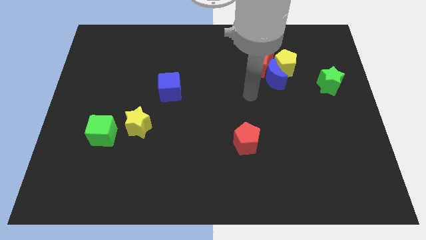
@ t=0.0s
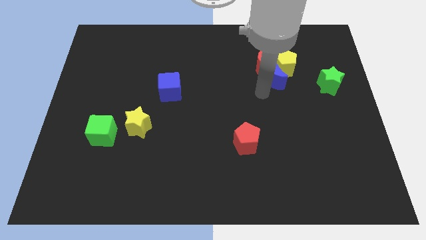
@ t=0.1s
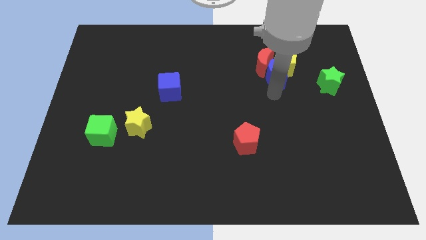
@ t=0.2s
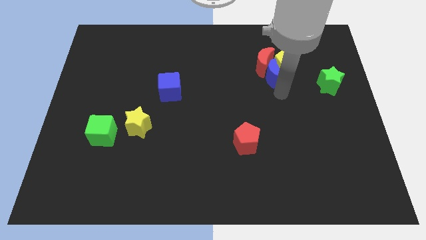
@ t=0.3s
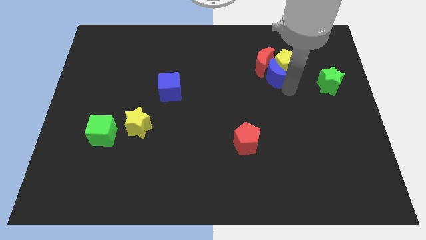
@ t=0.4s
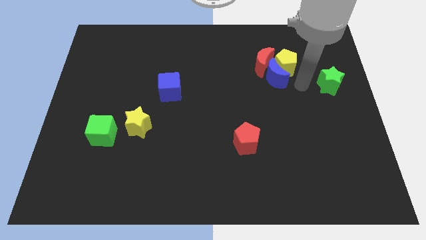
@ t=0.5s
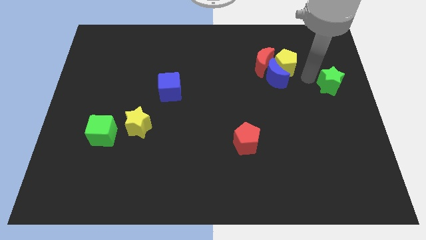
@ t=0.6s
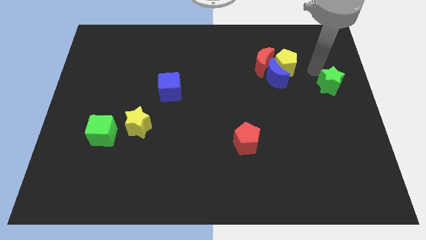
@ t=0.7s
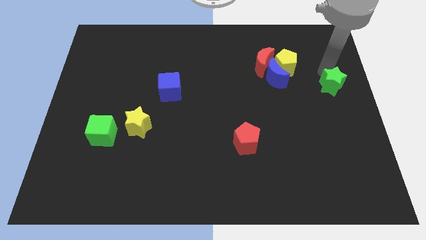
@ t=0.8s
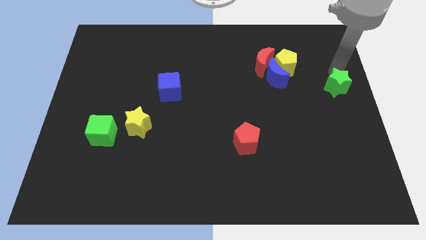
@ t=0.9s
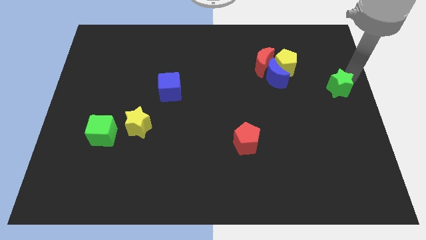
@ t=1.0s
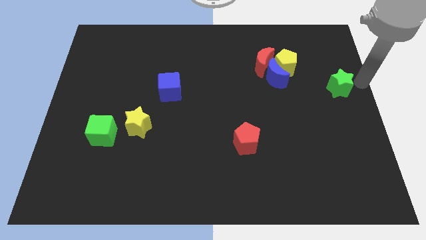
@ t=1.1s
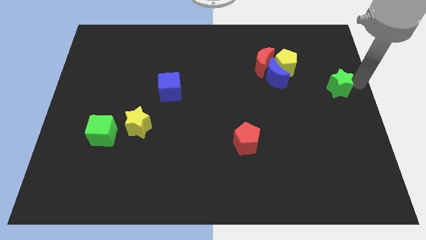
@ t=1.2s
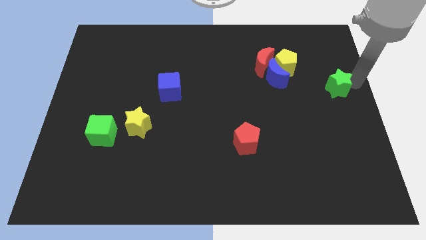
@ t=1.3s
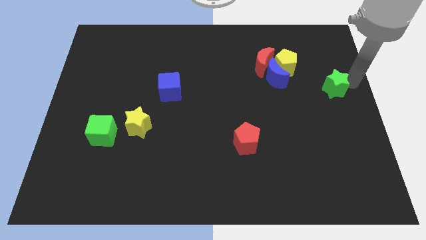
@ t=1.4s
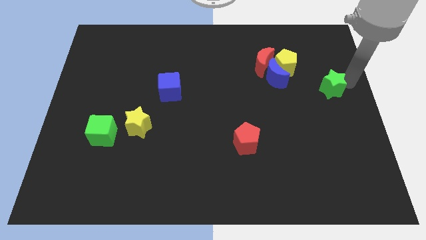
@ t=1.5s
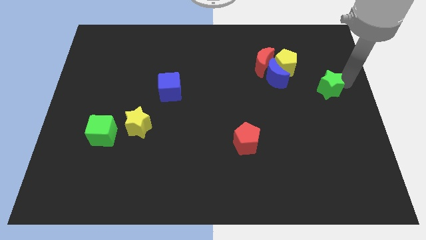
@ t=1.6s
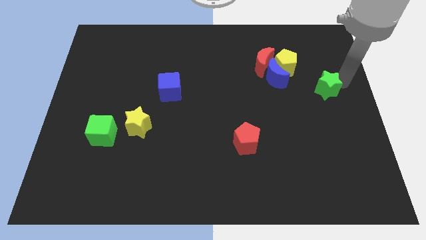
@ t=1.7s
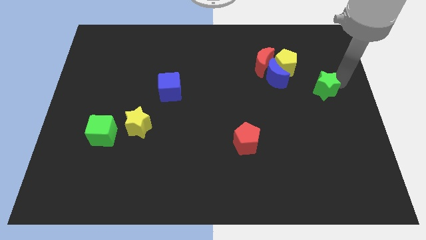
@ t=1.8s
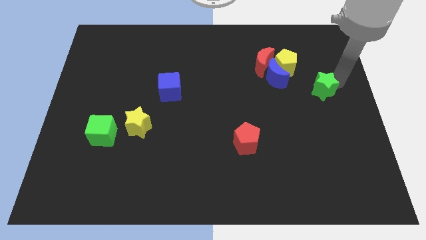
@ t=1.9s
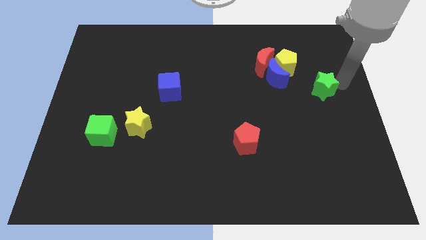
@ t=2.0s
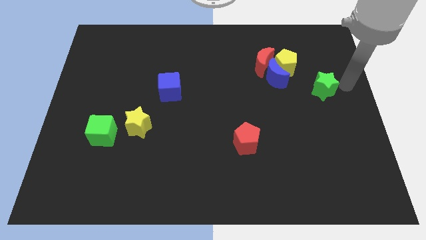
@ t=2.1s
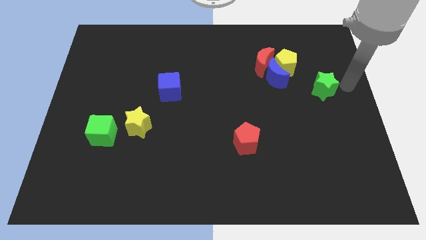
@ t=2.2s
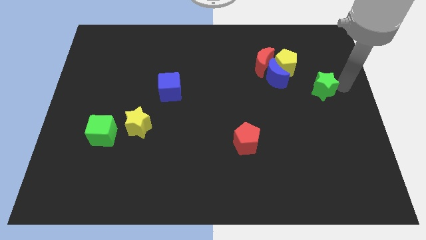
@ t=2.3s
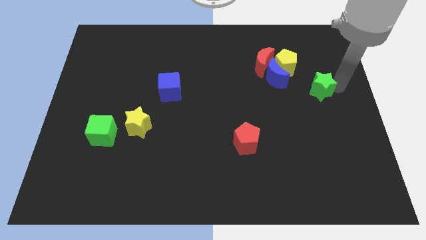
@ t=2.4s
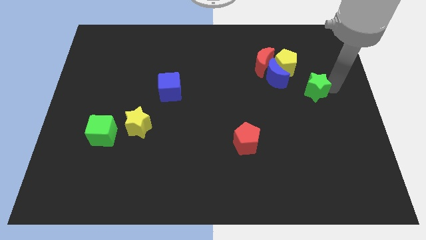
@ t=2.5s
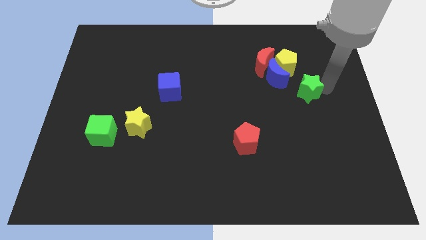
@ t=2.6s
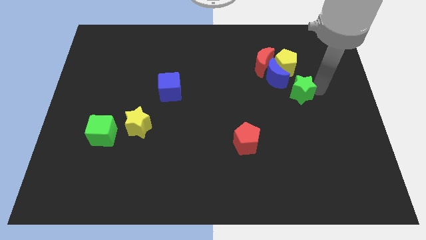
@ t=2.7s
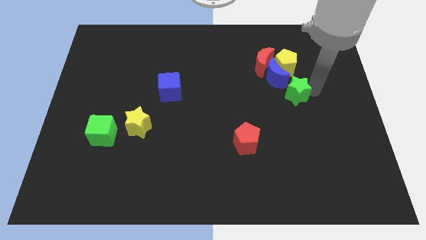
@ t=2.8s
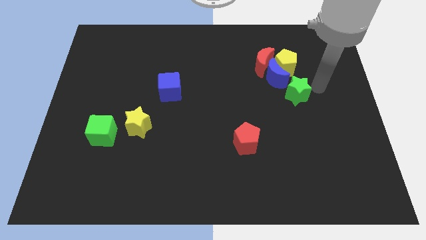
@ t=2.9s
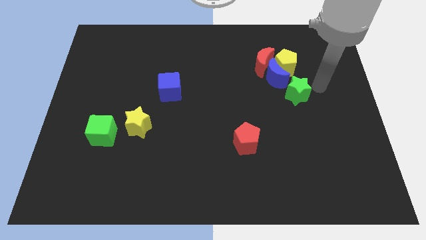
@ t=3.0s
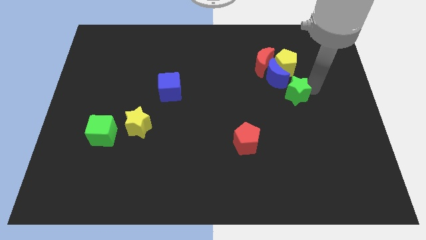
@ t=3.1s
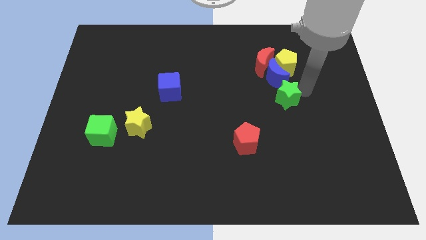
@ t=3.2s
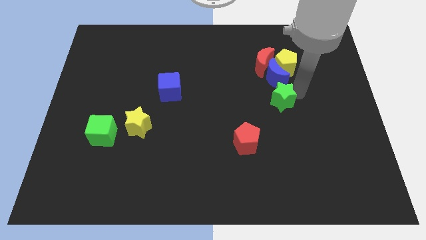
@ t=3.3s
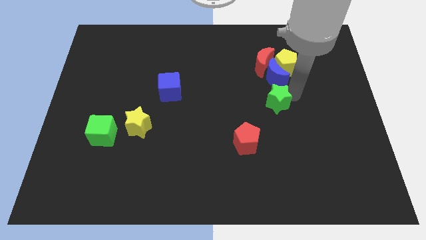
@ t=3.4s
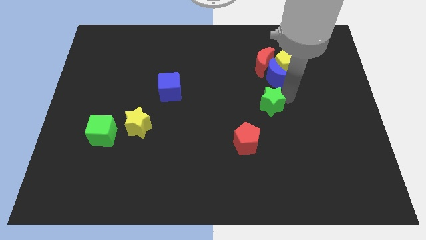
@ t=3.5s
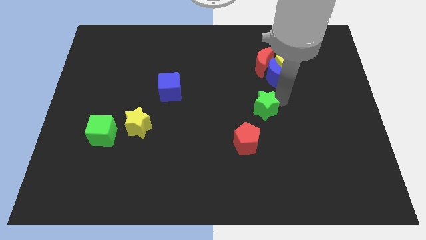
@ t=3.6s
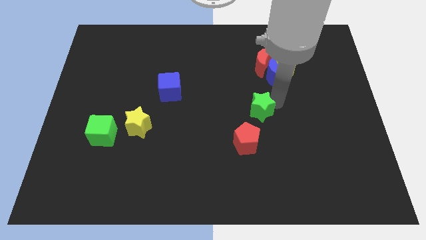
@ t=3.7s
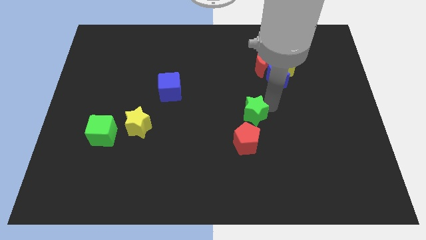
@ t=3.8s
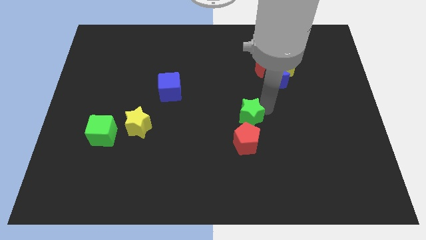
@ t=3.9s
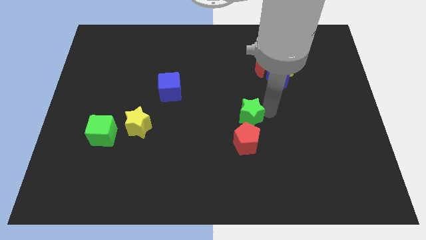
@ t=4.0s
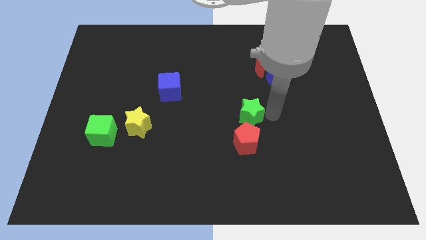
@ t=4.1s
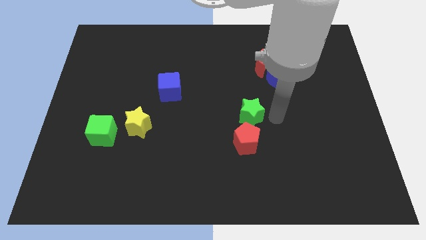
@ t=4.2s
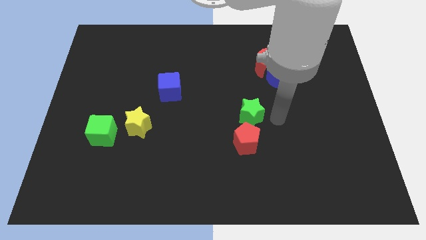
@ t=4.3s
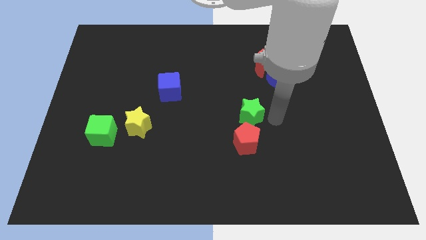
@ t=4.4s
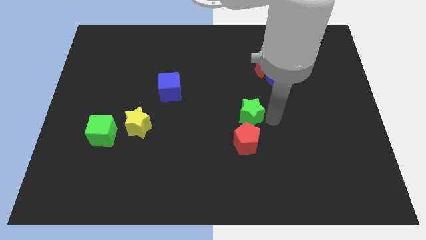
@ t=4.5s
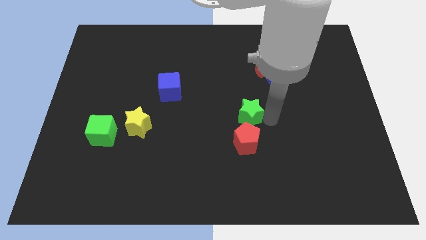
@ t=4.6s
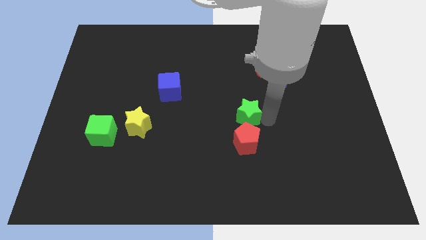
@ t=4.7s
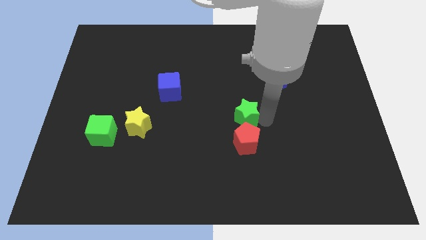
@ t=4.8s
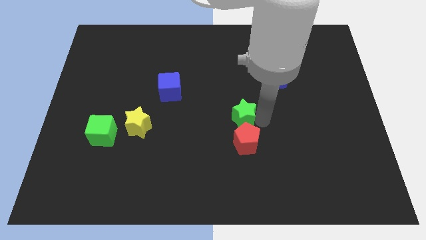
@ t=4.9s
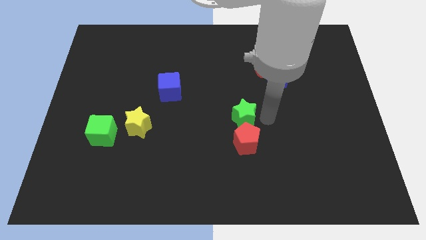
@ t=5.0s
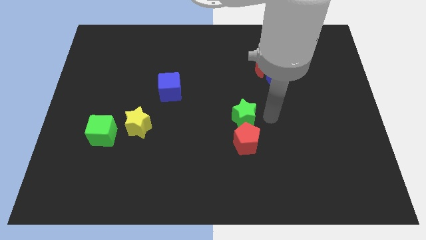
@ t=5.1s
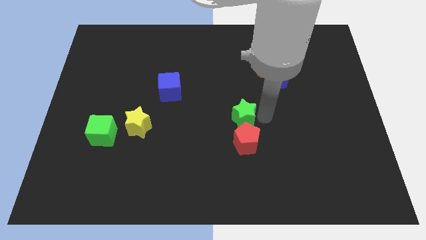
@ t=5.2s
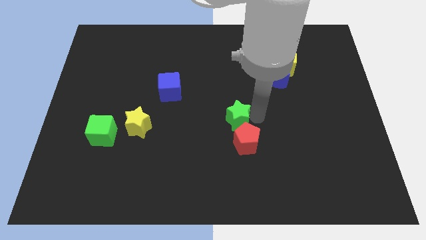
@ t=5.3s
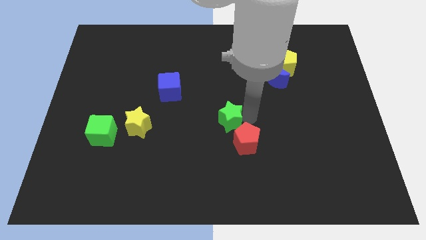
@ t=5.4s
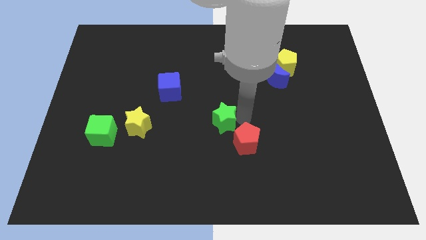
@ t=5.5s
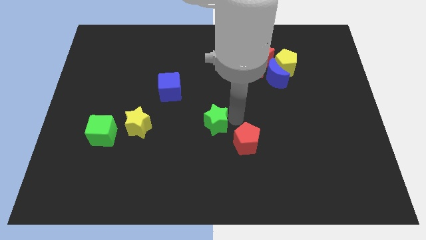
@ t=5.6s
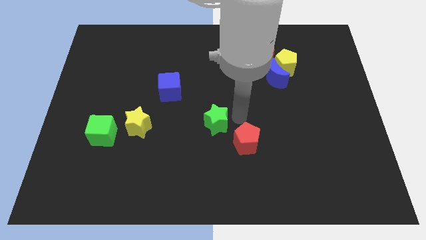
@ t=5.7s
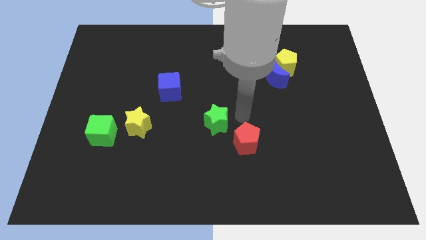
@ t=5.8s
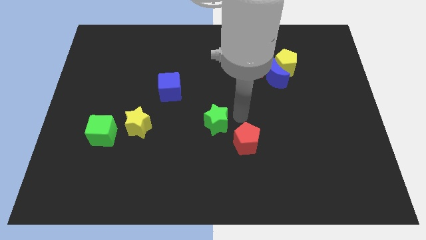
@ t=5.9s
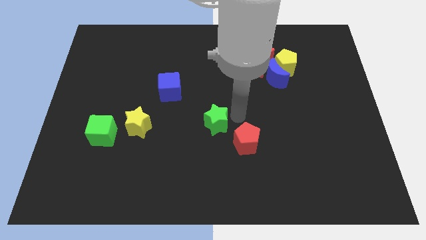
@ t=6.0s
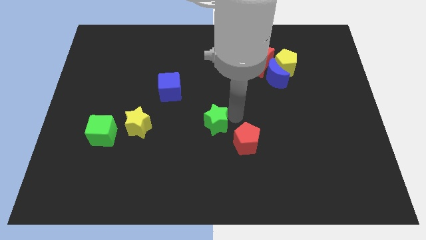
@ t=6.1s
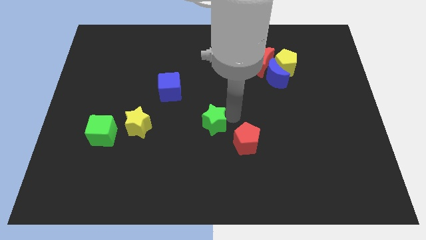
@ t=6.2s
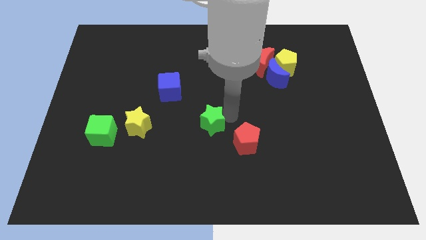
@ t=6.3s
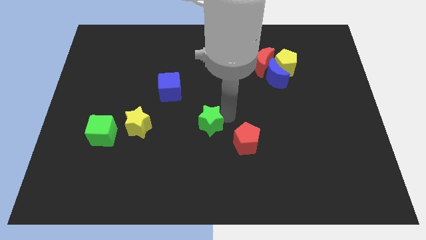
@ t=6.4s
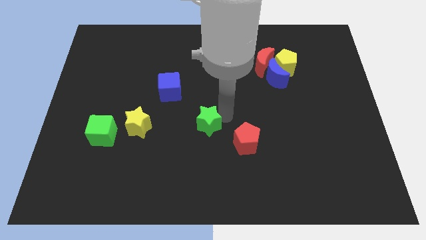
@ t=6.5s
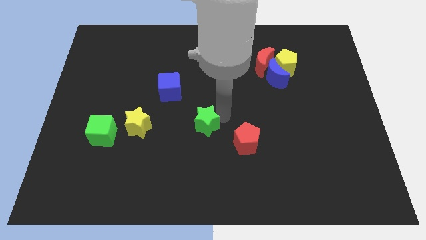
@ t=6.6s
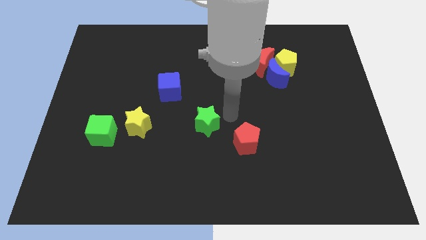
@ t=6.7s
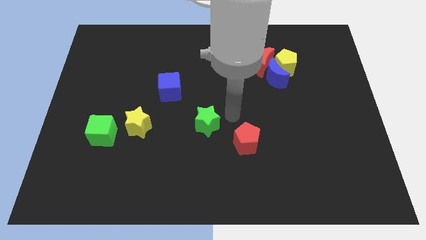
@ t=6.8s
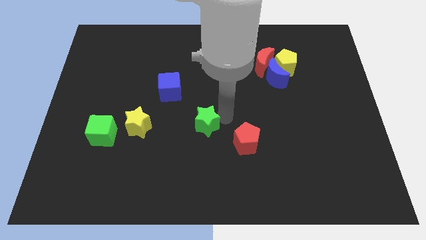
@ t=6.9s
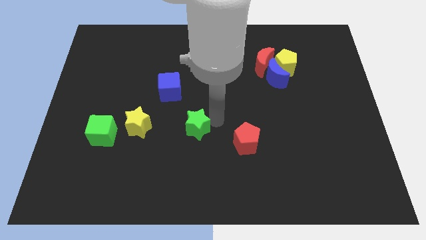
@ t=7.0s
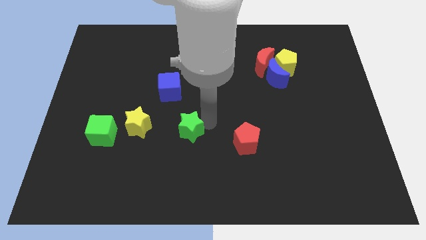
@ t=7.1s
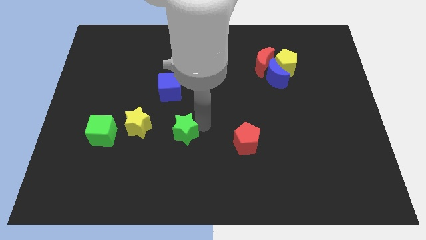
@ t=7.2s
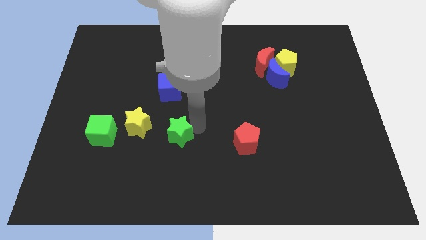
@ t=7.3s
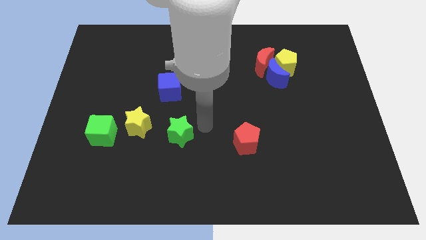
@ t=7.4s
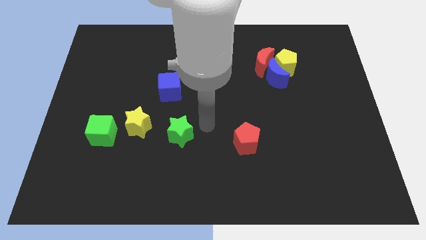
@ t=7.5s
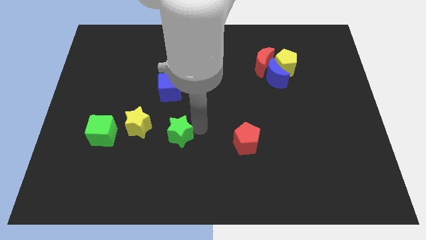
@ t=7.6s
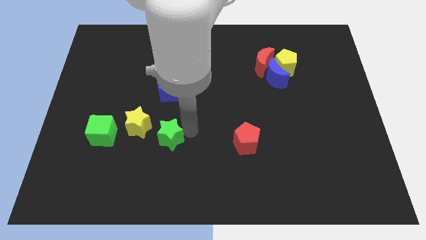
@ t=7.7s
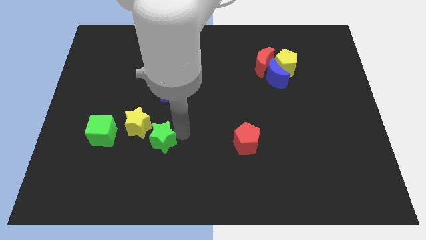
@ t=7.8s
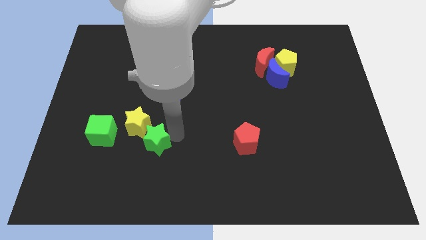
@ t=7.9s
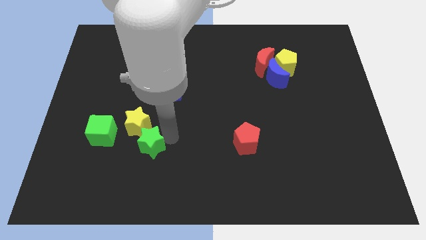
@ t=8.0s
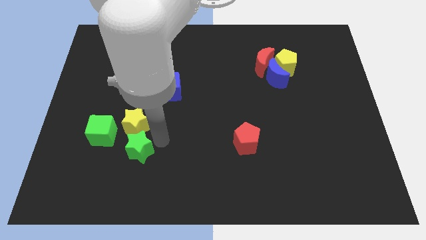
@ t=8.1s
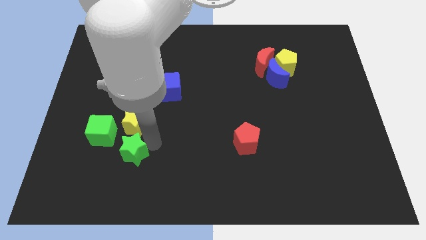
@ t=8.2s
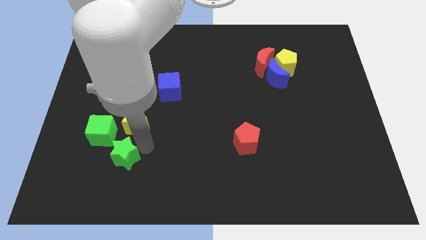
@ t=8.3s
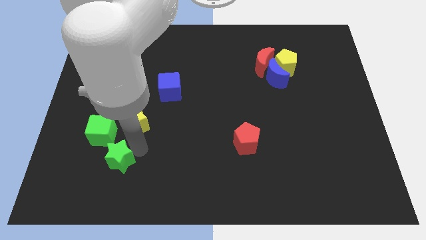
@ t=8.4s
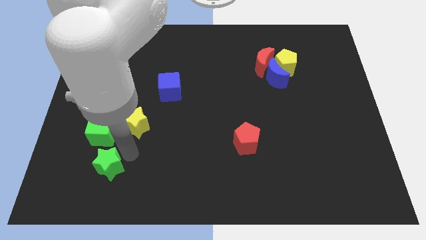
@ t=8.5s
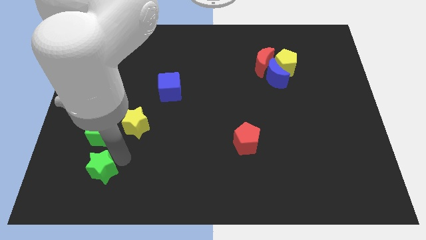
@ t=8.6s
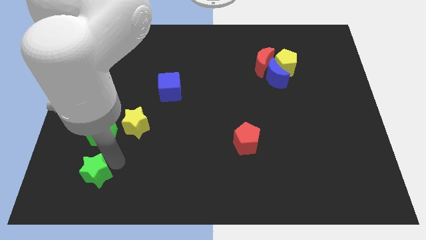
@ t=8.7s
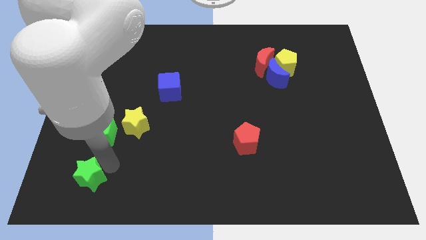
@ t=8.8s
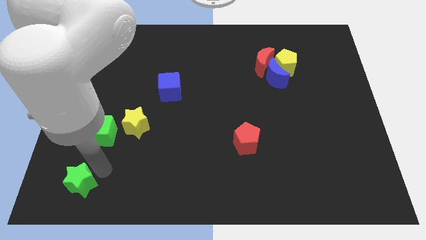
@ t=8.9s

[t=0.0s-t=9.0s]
slide the green star to the lower left corner
